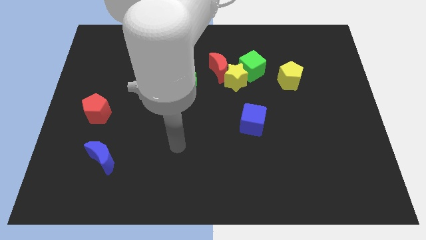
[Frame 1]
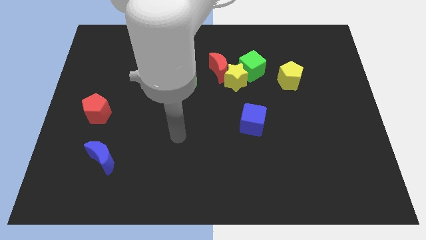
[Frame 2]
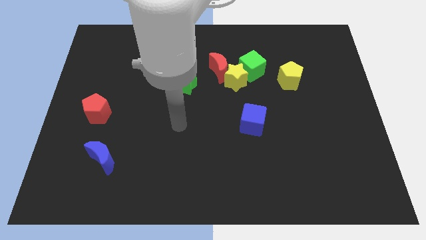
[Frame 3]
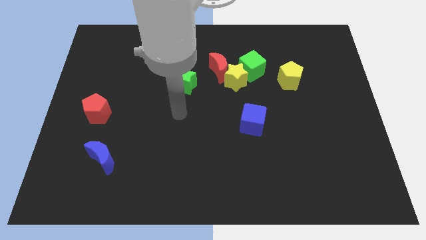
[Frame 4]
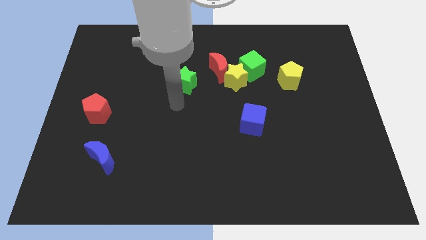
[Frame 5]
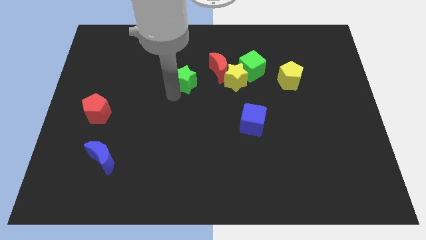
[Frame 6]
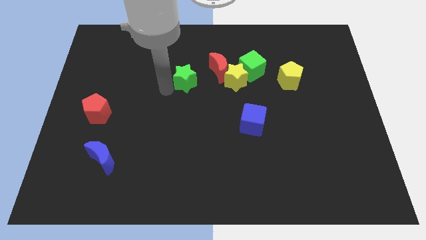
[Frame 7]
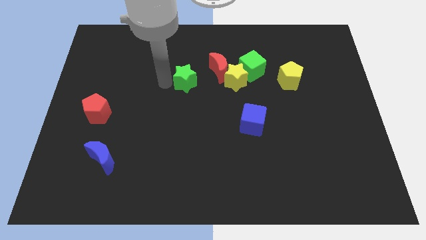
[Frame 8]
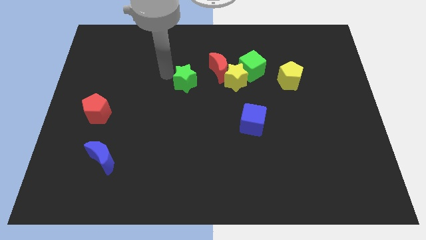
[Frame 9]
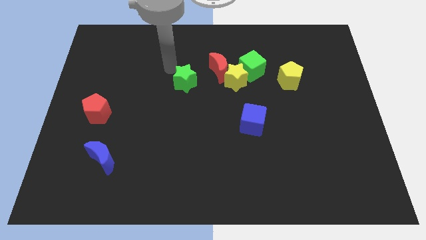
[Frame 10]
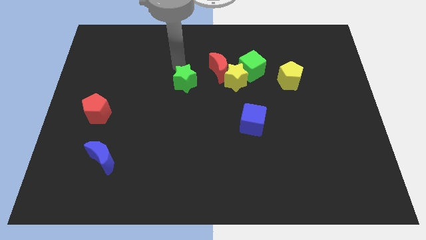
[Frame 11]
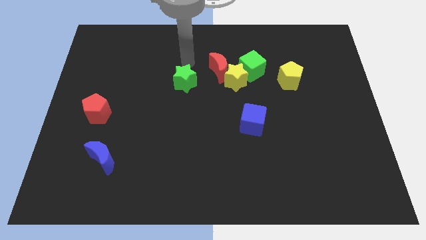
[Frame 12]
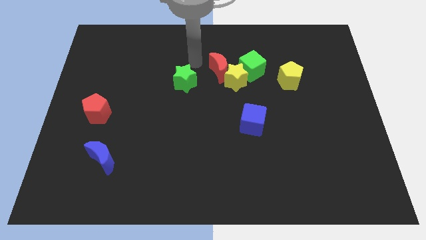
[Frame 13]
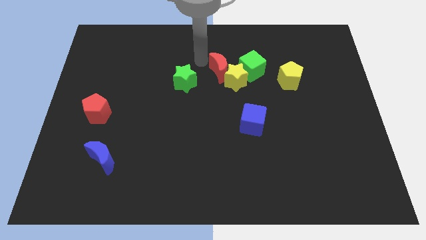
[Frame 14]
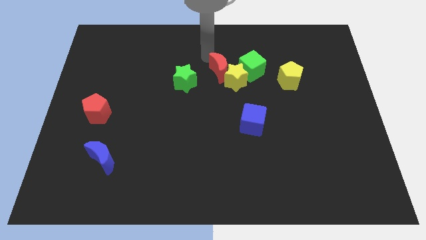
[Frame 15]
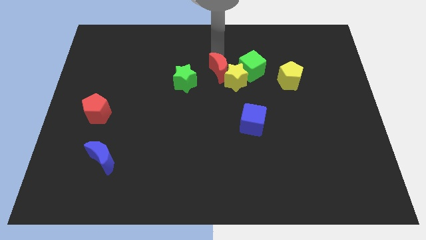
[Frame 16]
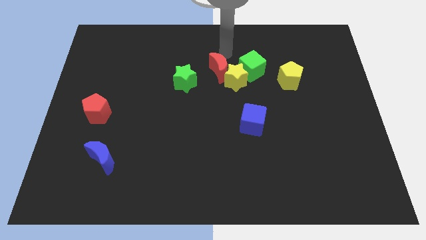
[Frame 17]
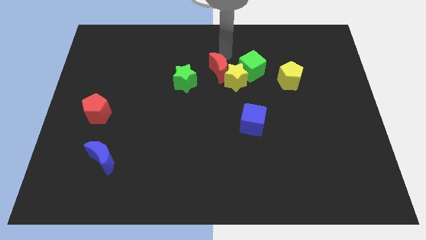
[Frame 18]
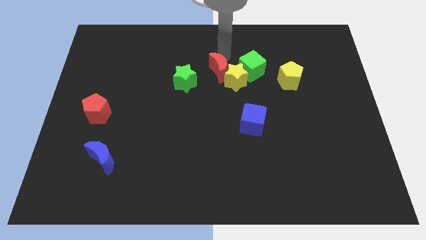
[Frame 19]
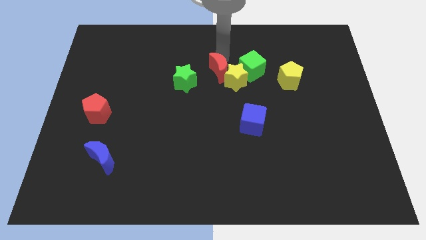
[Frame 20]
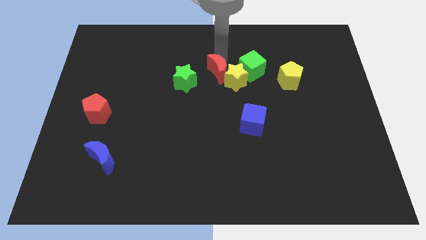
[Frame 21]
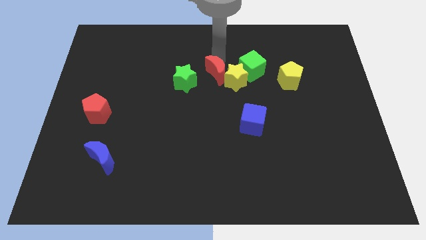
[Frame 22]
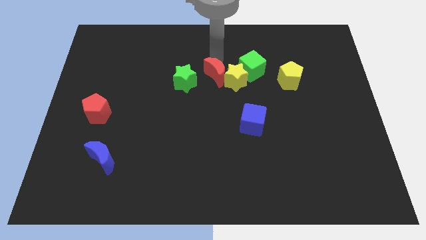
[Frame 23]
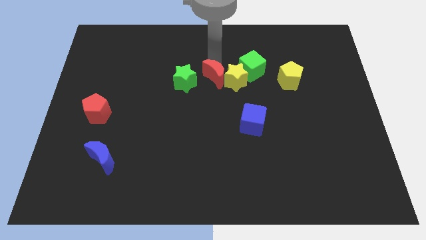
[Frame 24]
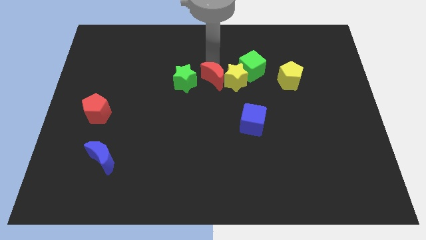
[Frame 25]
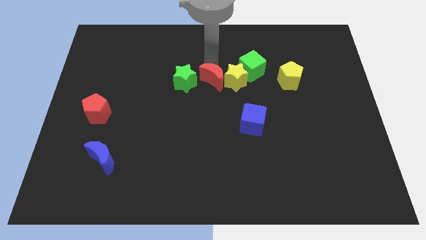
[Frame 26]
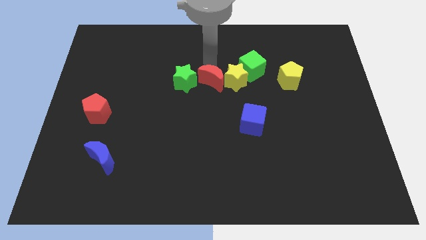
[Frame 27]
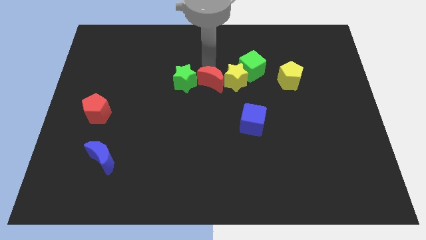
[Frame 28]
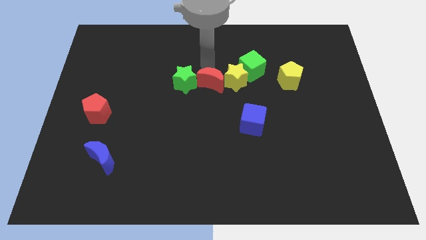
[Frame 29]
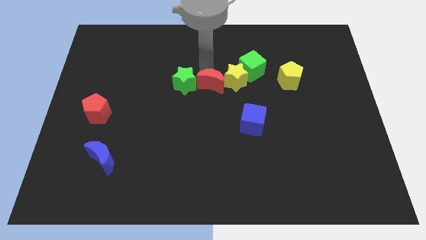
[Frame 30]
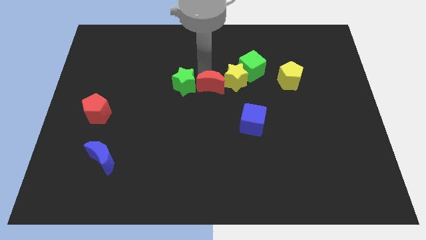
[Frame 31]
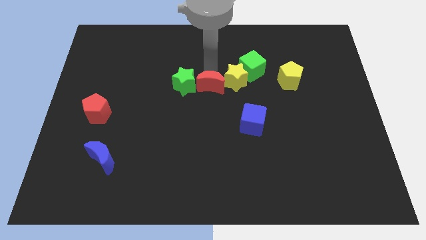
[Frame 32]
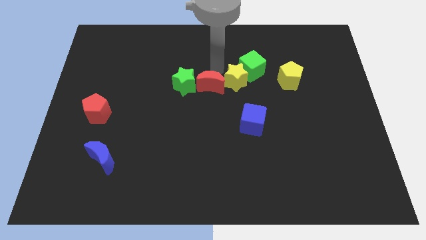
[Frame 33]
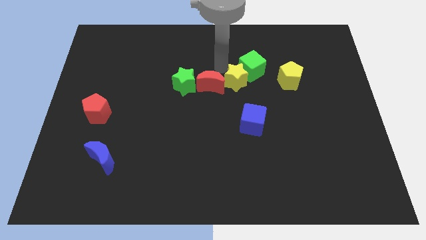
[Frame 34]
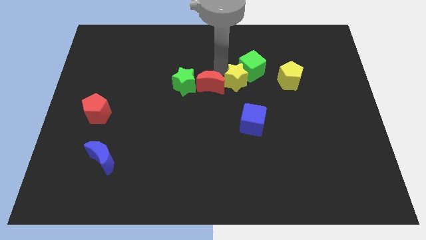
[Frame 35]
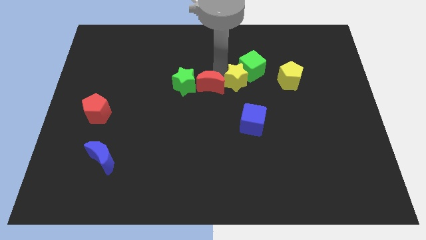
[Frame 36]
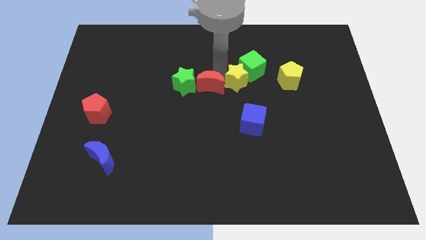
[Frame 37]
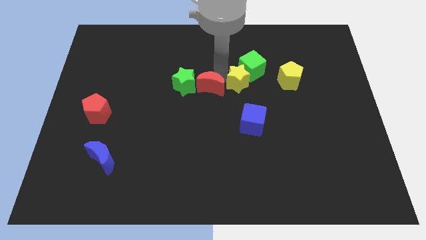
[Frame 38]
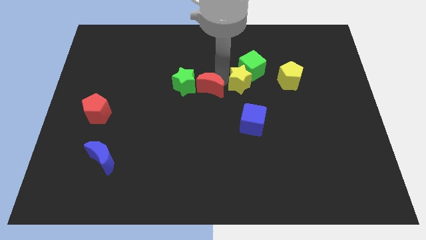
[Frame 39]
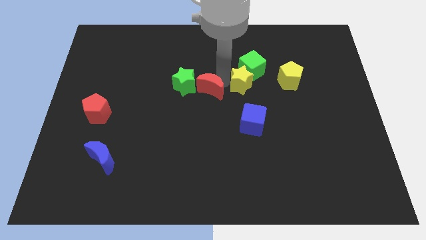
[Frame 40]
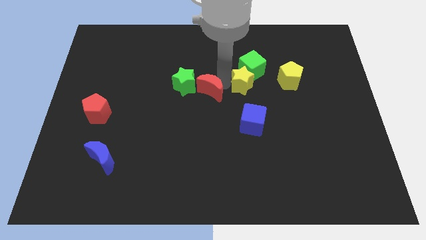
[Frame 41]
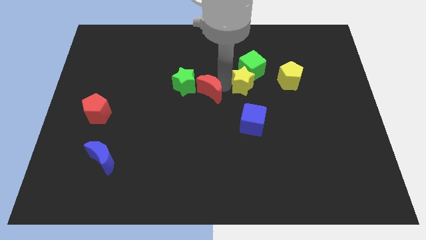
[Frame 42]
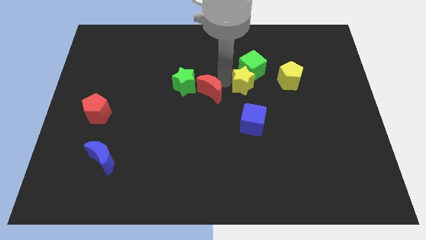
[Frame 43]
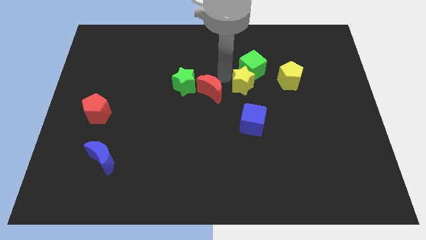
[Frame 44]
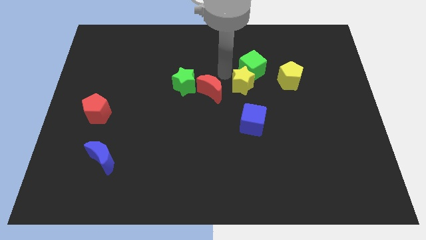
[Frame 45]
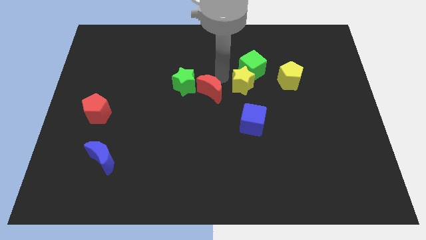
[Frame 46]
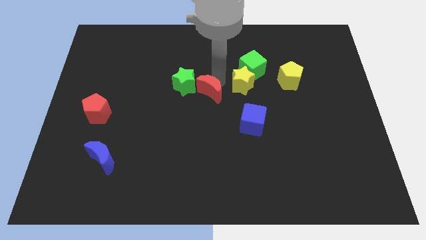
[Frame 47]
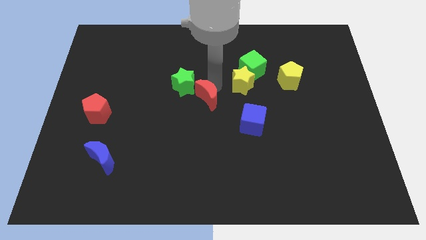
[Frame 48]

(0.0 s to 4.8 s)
push the red moon a little bit down and left

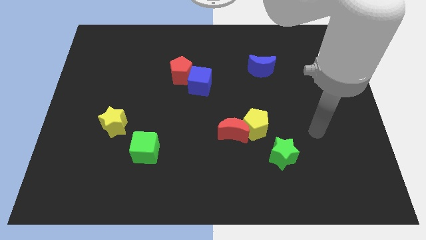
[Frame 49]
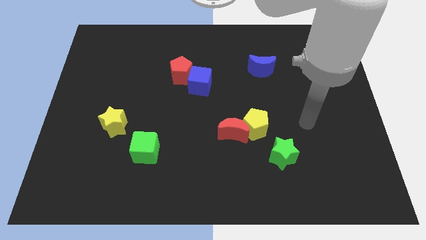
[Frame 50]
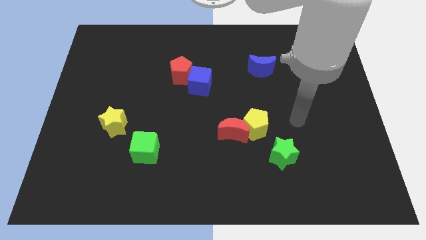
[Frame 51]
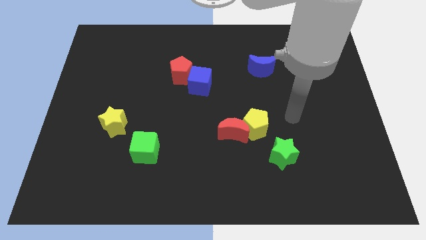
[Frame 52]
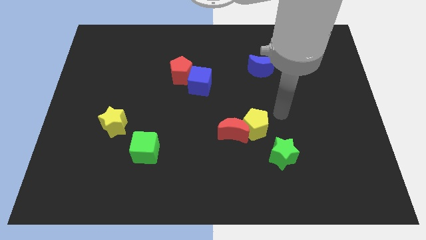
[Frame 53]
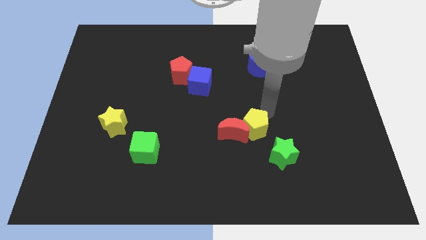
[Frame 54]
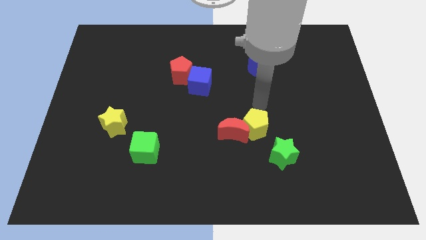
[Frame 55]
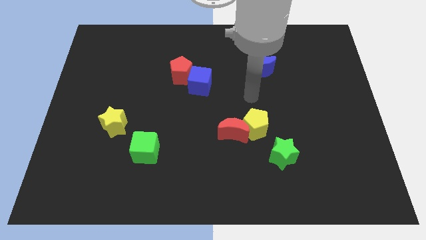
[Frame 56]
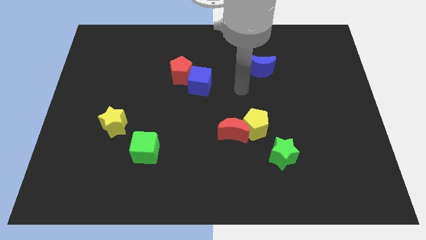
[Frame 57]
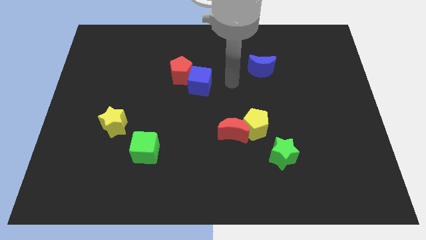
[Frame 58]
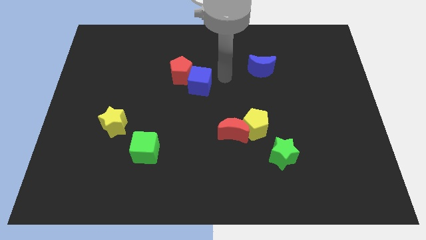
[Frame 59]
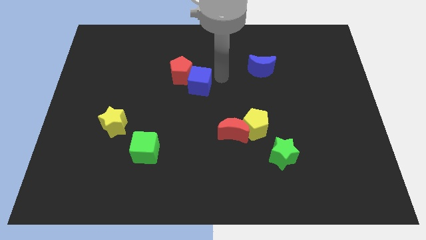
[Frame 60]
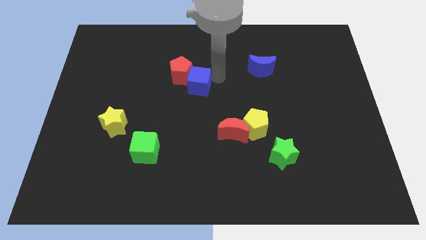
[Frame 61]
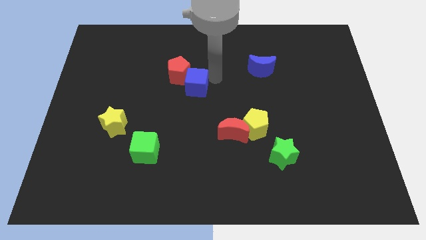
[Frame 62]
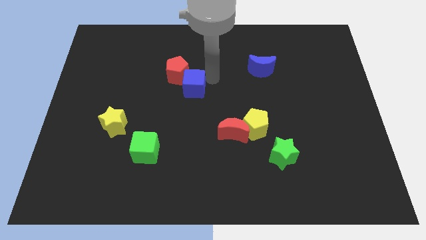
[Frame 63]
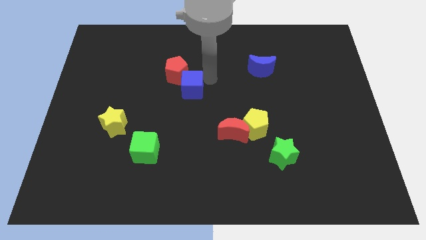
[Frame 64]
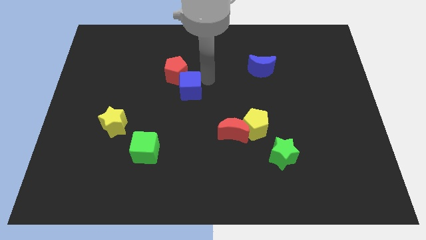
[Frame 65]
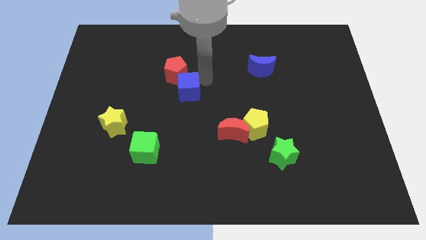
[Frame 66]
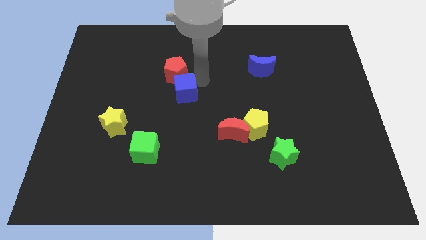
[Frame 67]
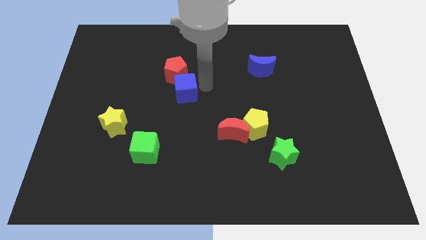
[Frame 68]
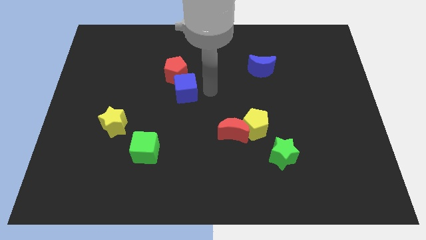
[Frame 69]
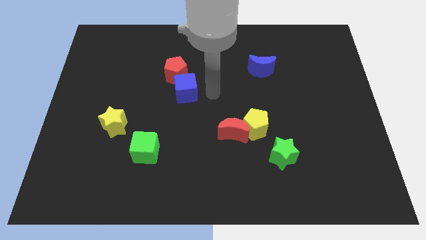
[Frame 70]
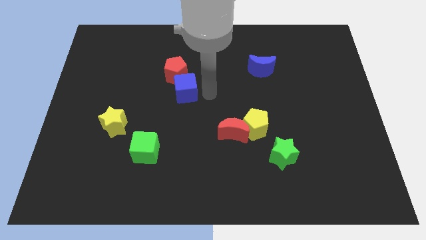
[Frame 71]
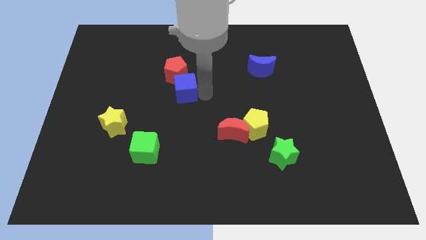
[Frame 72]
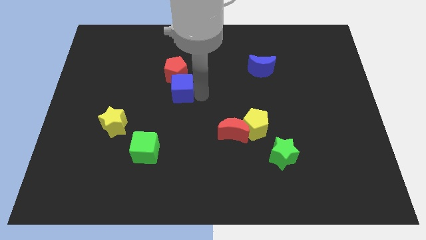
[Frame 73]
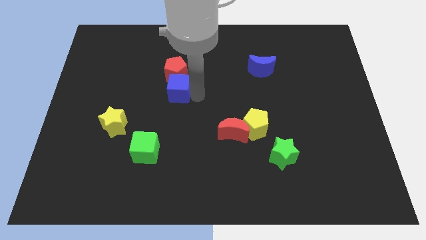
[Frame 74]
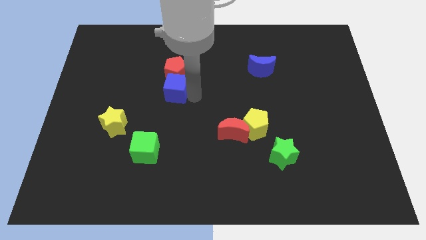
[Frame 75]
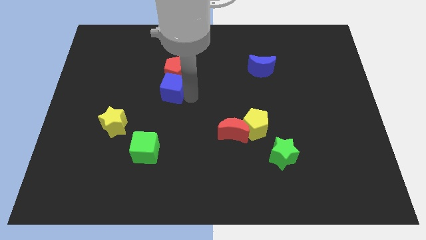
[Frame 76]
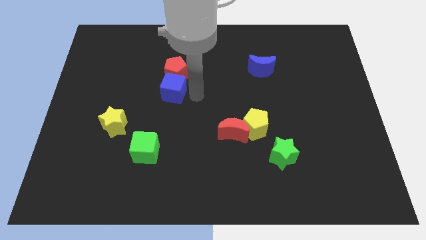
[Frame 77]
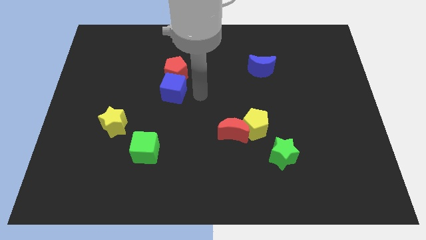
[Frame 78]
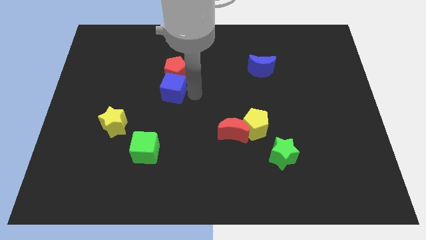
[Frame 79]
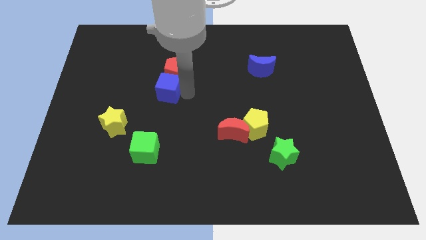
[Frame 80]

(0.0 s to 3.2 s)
slightly push the blue cube to the left
